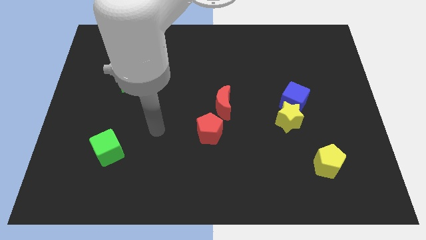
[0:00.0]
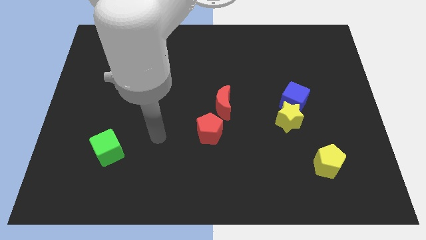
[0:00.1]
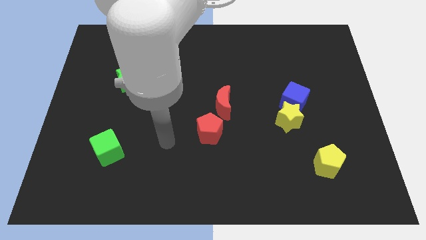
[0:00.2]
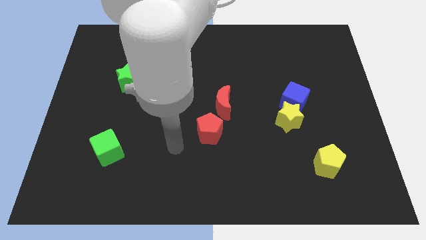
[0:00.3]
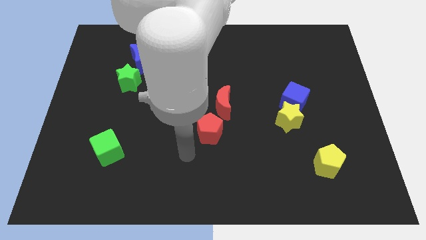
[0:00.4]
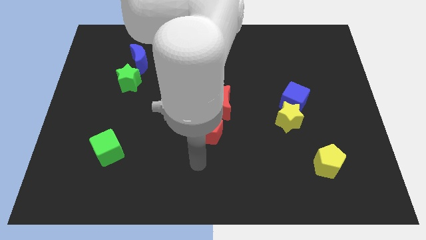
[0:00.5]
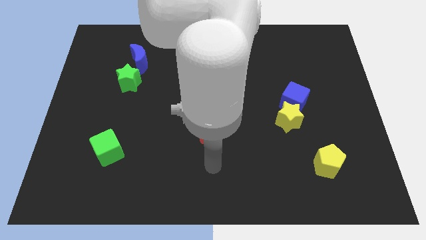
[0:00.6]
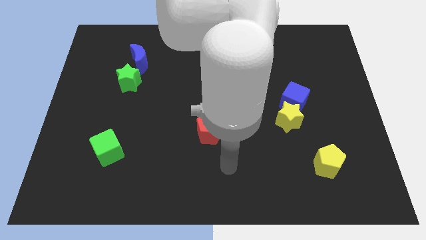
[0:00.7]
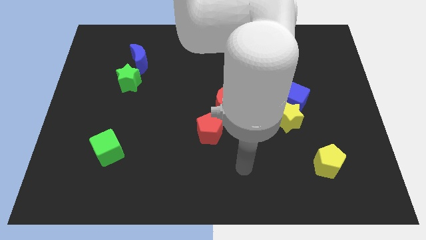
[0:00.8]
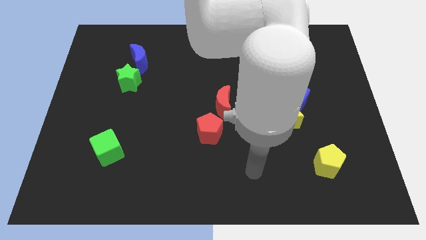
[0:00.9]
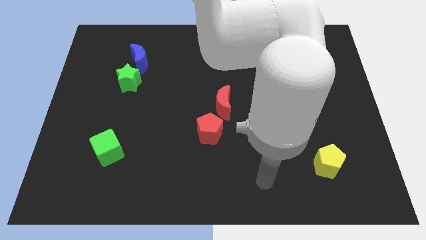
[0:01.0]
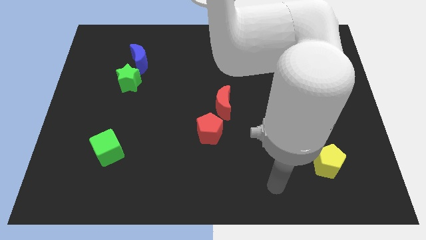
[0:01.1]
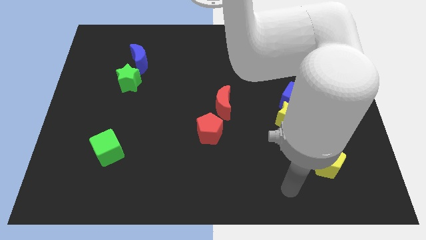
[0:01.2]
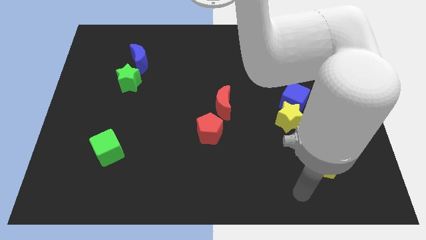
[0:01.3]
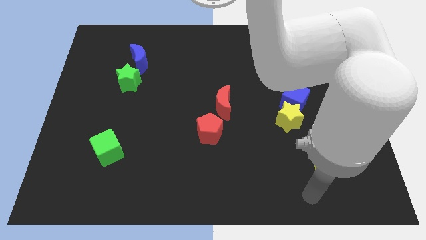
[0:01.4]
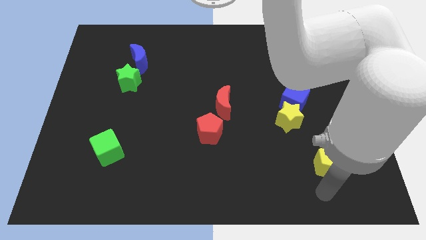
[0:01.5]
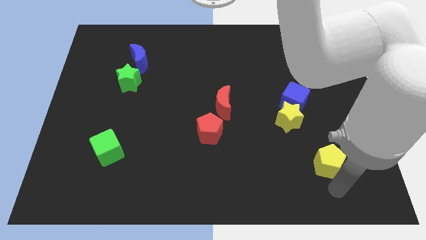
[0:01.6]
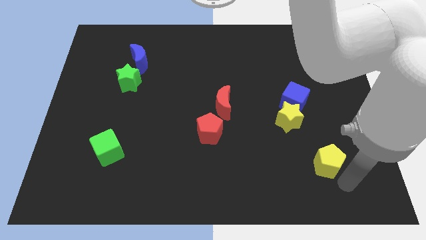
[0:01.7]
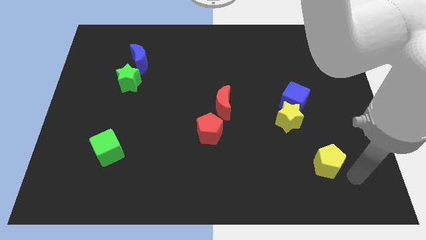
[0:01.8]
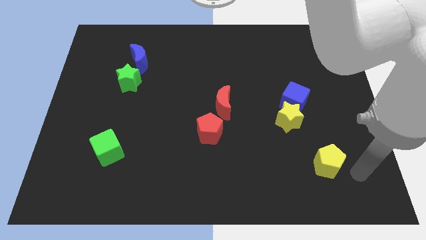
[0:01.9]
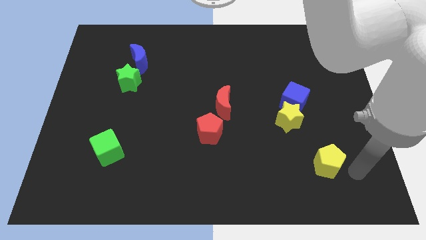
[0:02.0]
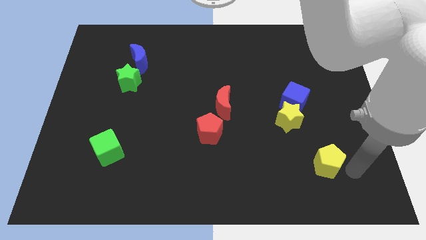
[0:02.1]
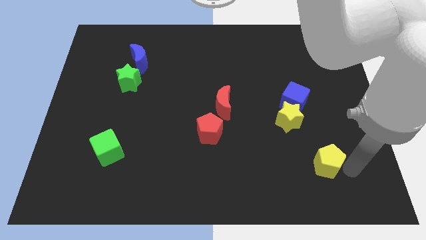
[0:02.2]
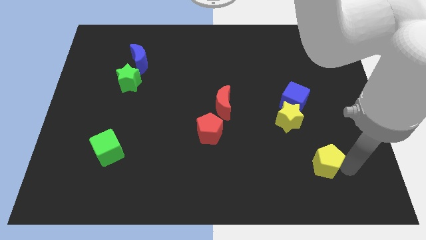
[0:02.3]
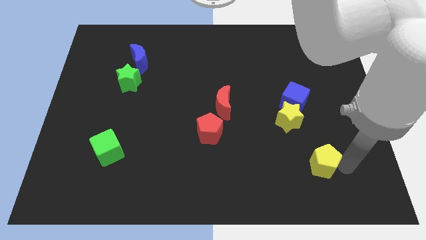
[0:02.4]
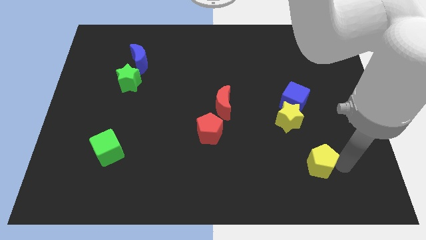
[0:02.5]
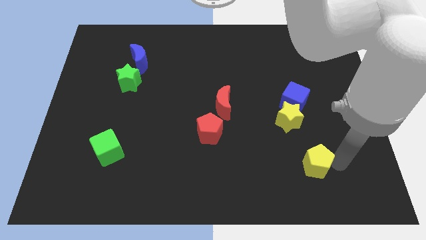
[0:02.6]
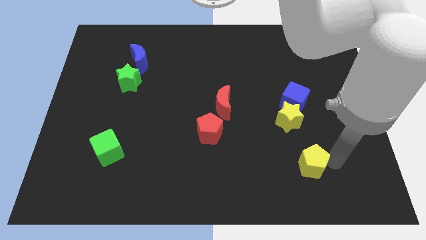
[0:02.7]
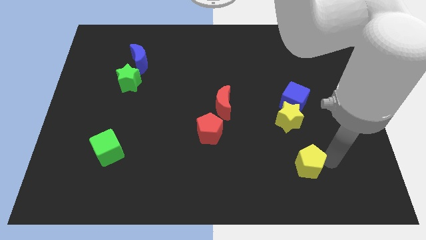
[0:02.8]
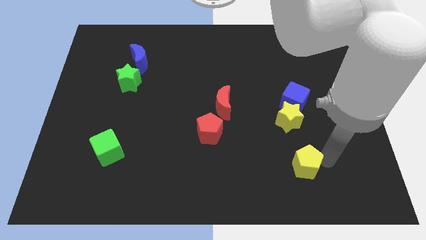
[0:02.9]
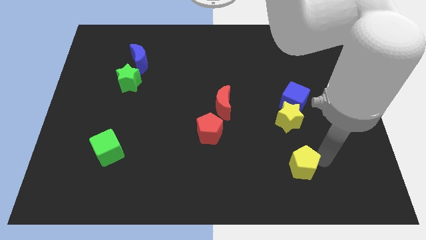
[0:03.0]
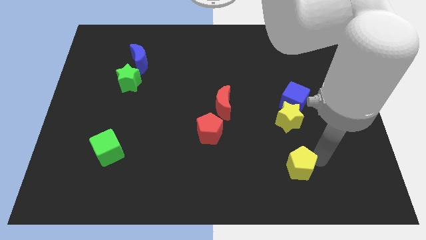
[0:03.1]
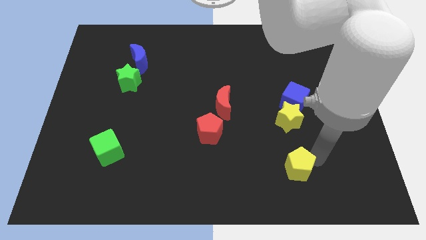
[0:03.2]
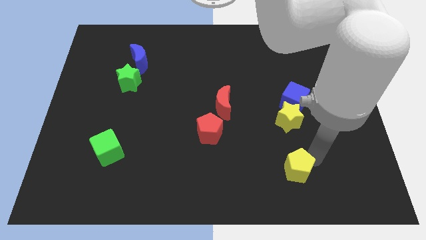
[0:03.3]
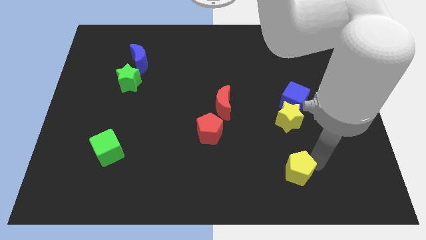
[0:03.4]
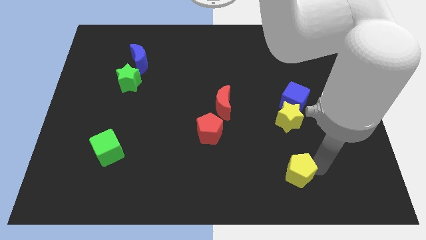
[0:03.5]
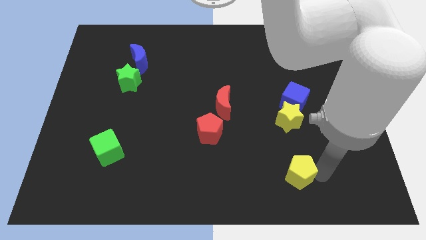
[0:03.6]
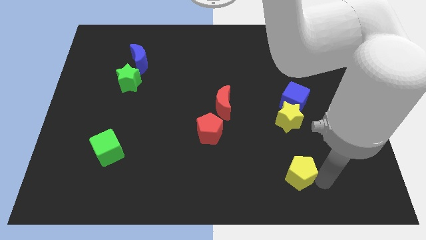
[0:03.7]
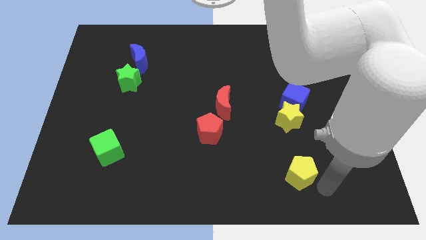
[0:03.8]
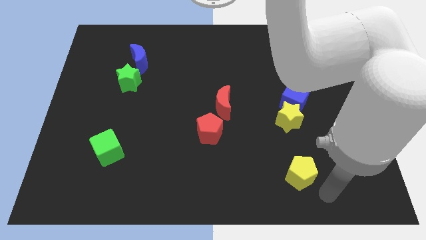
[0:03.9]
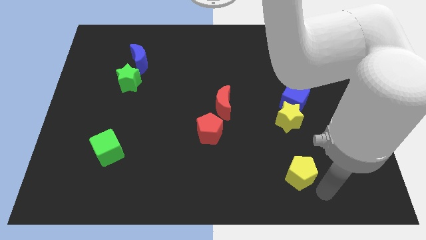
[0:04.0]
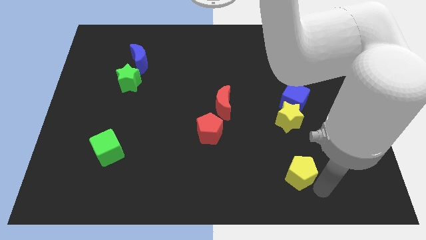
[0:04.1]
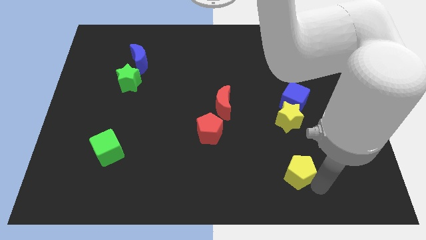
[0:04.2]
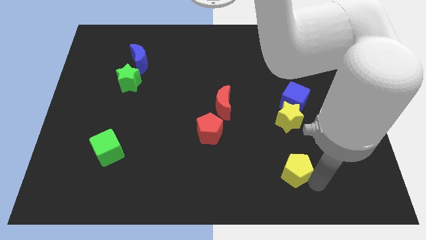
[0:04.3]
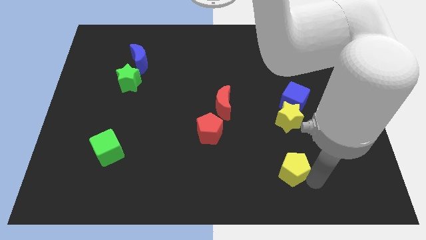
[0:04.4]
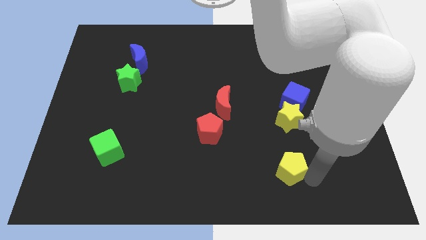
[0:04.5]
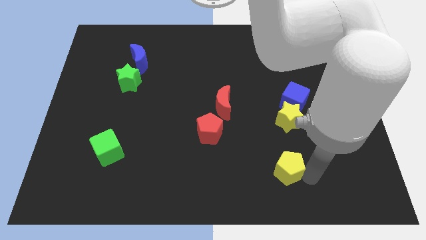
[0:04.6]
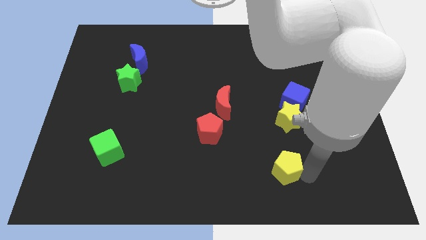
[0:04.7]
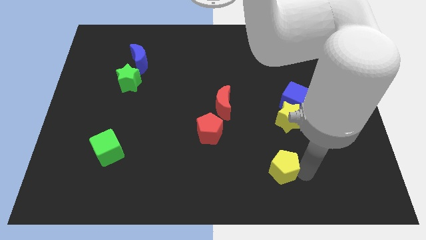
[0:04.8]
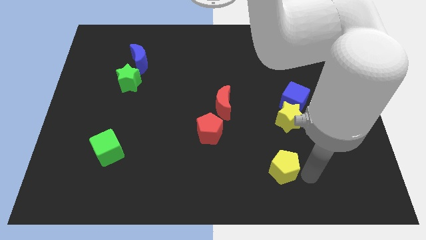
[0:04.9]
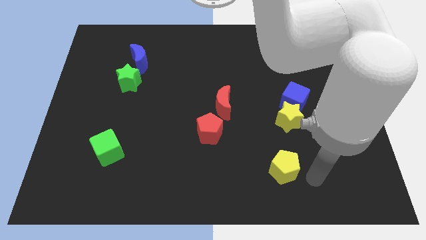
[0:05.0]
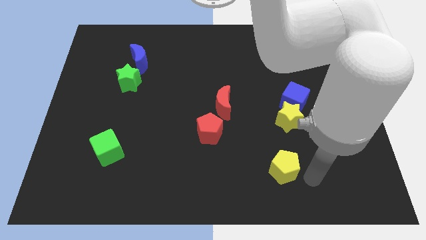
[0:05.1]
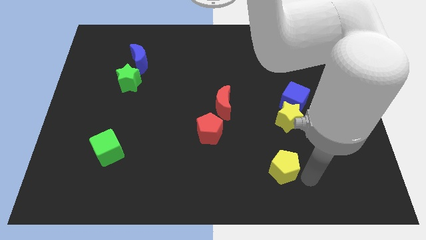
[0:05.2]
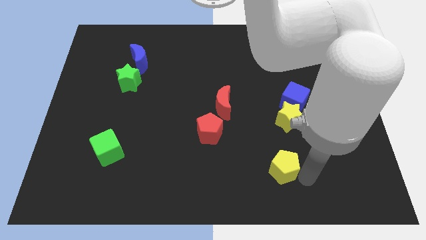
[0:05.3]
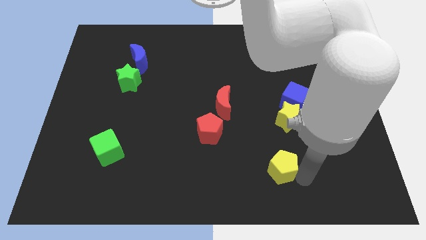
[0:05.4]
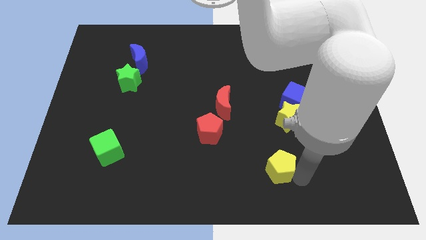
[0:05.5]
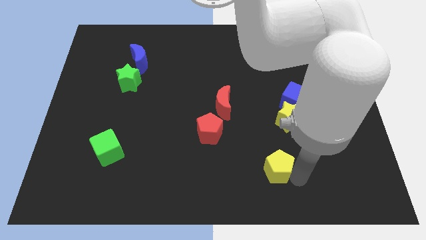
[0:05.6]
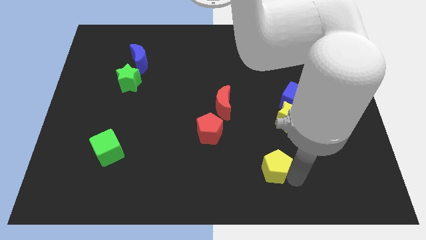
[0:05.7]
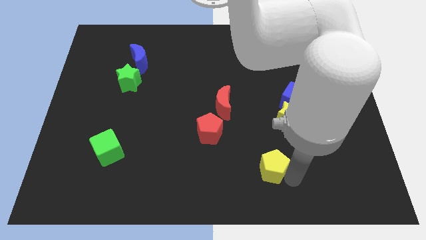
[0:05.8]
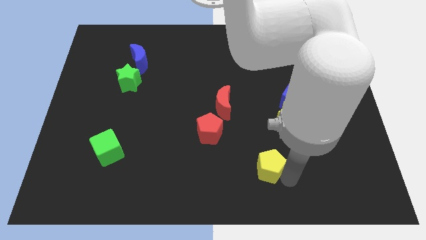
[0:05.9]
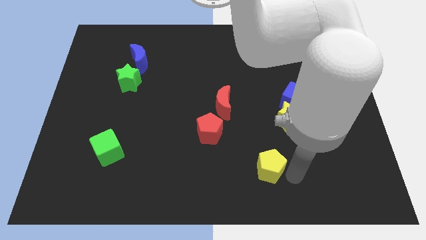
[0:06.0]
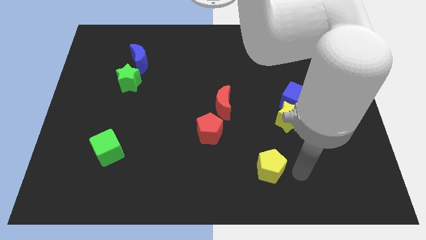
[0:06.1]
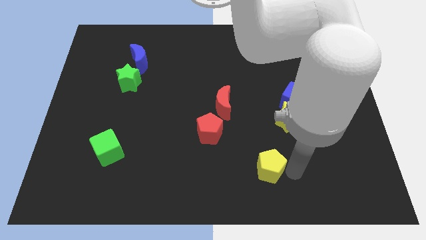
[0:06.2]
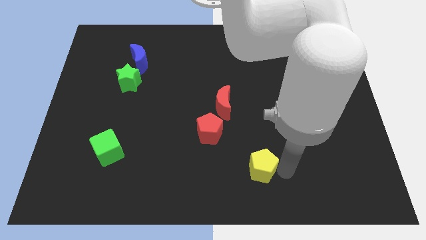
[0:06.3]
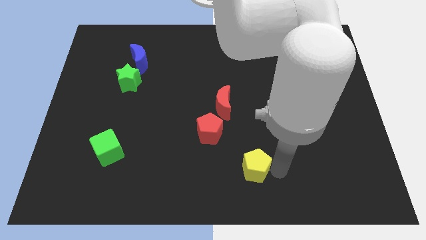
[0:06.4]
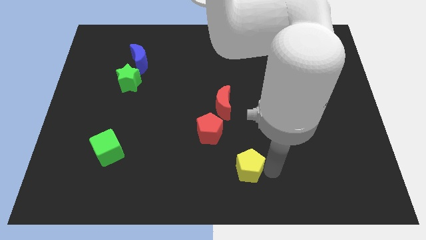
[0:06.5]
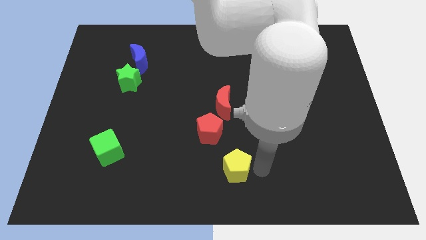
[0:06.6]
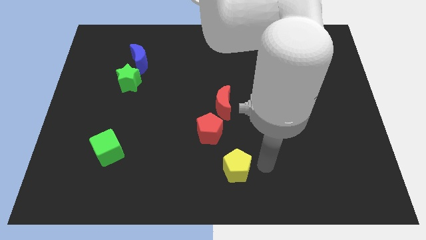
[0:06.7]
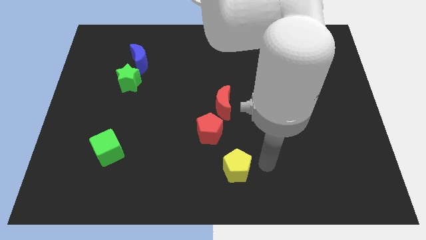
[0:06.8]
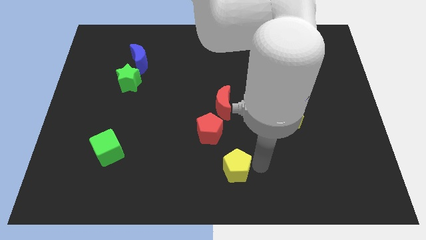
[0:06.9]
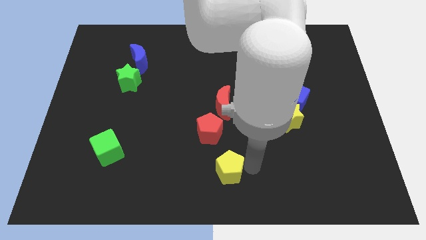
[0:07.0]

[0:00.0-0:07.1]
slide the yellow pentagon to the bottom of the red pentagon

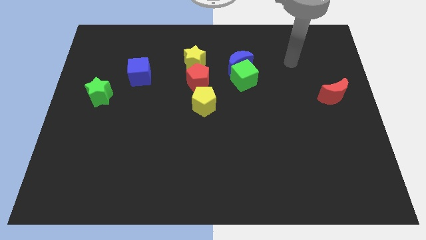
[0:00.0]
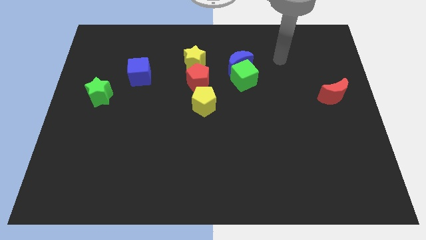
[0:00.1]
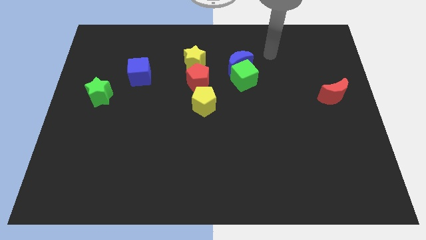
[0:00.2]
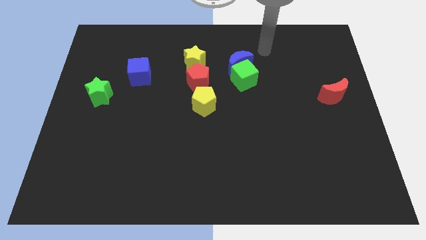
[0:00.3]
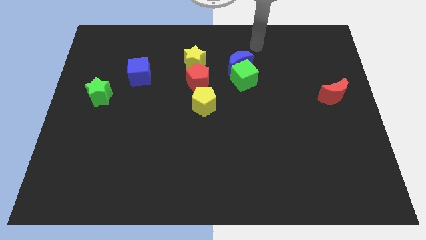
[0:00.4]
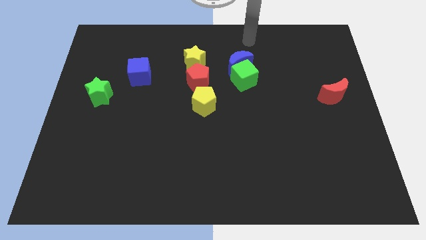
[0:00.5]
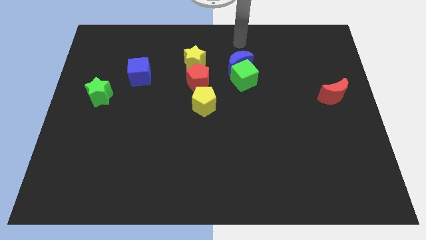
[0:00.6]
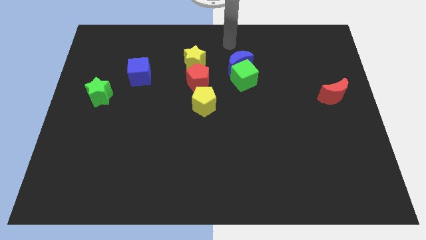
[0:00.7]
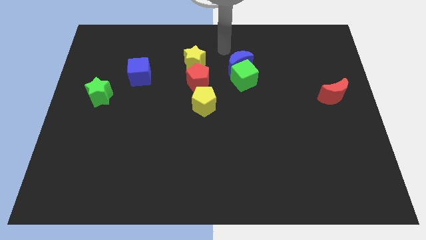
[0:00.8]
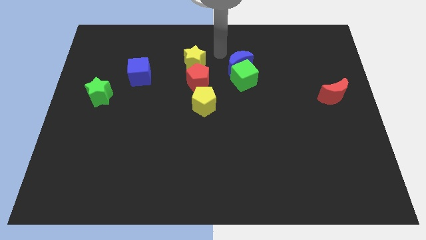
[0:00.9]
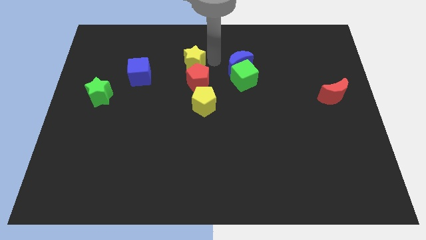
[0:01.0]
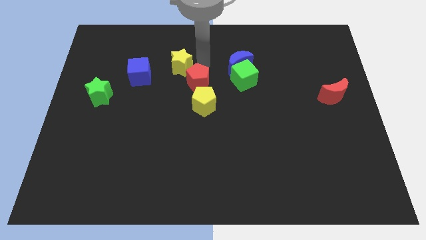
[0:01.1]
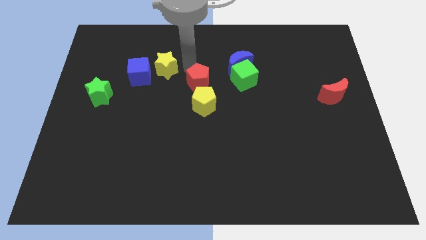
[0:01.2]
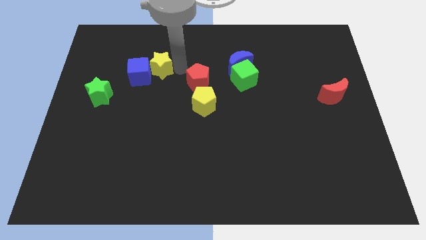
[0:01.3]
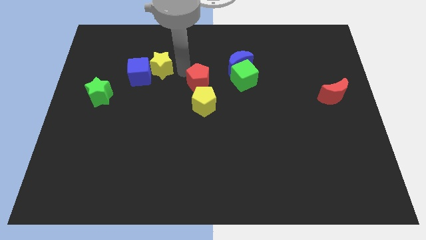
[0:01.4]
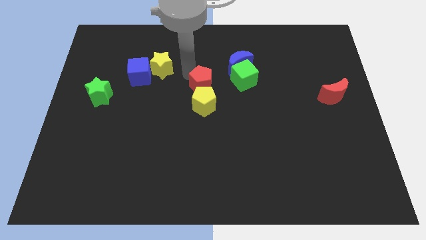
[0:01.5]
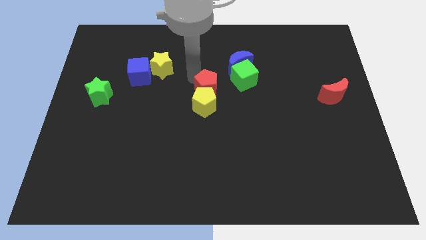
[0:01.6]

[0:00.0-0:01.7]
slide the red pentagon to the bottom left of the green cube
